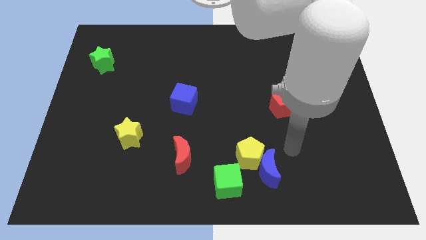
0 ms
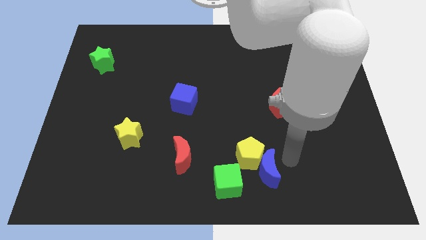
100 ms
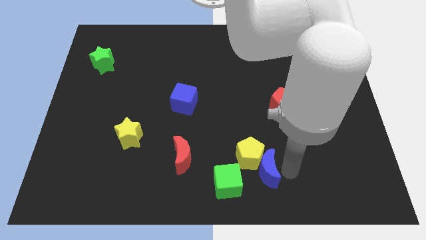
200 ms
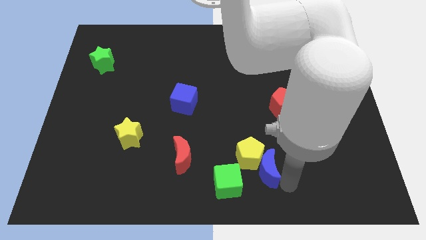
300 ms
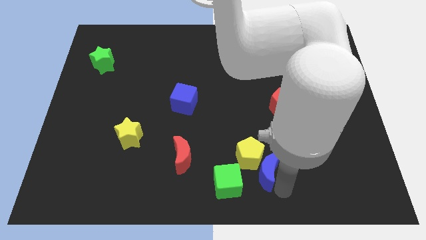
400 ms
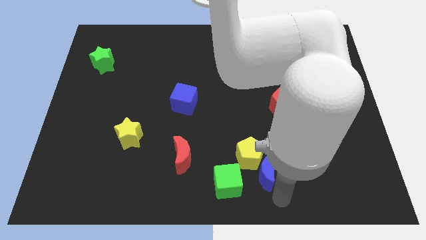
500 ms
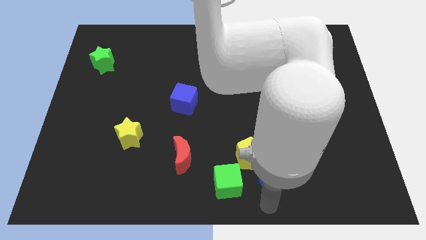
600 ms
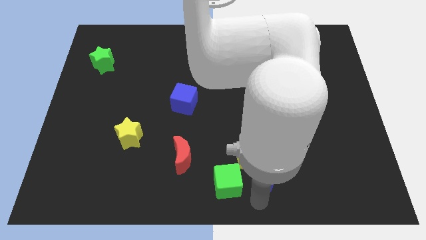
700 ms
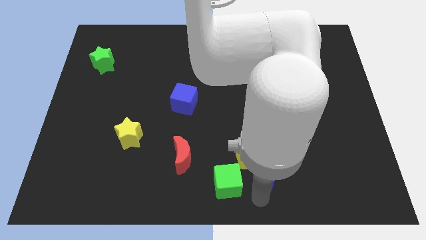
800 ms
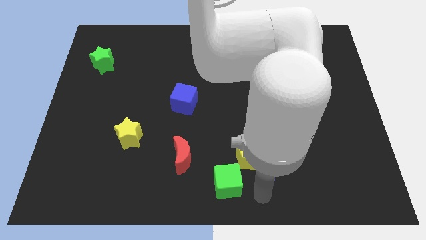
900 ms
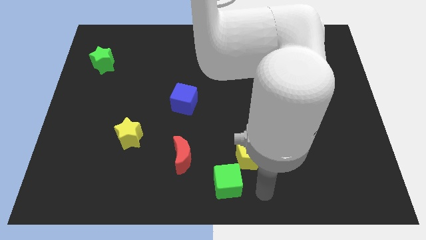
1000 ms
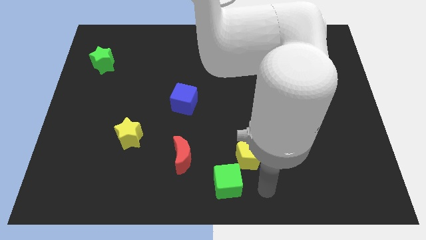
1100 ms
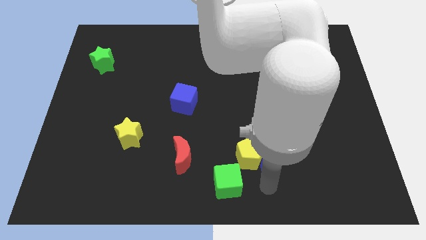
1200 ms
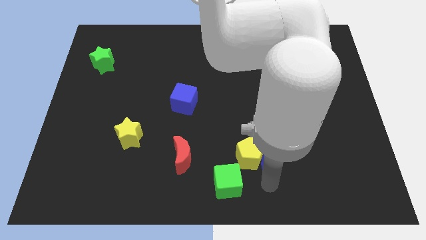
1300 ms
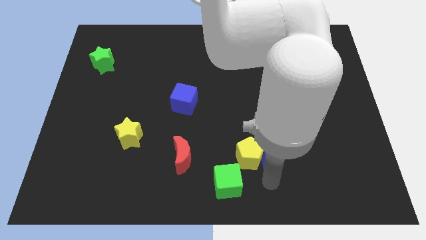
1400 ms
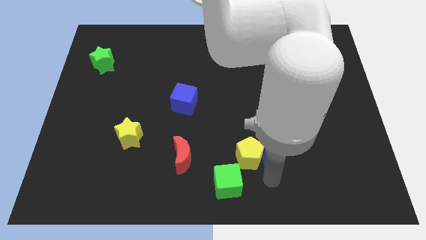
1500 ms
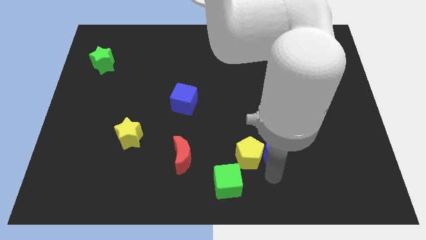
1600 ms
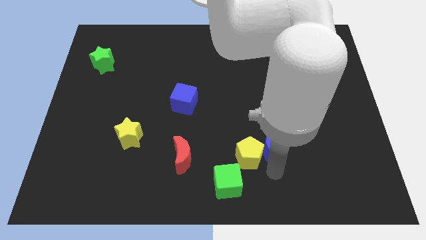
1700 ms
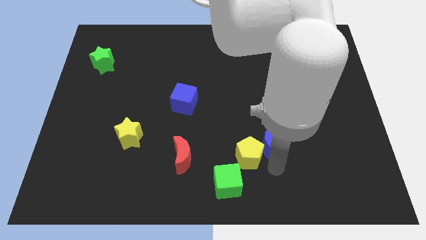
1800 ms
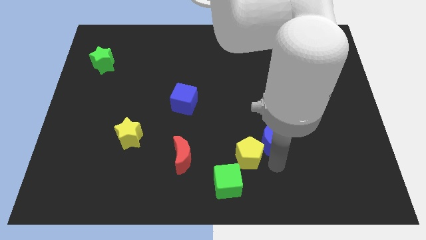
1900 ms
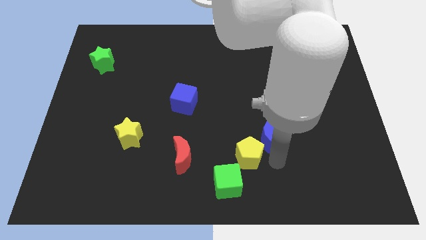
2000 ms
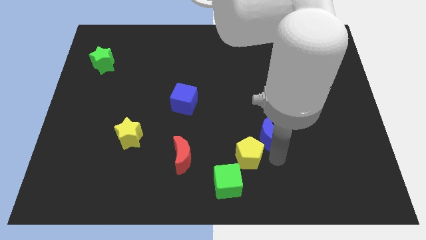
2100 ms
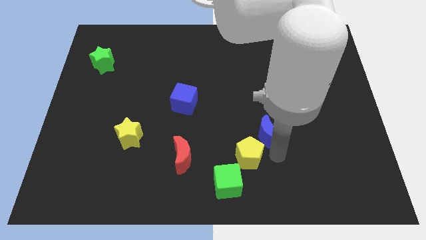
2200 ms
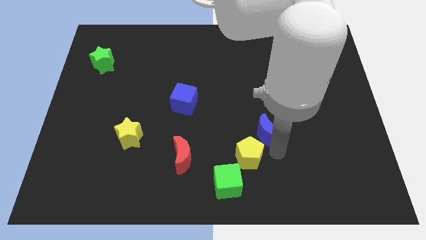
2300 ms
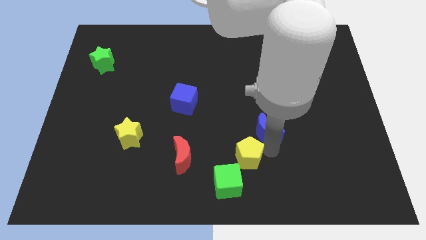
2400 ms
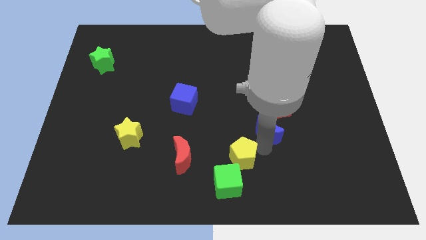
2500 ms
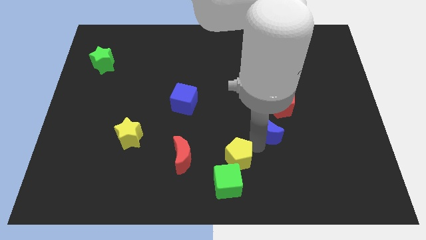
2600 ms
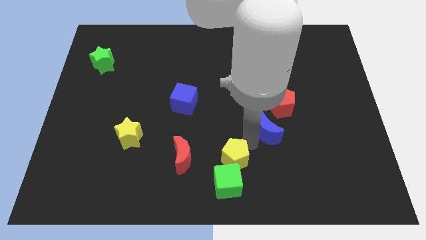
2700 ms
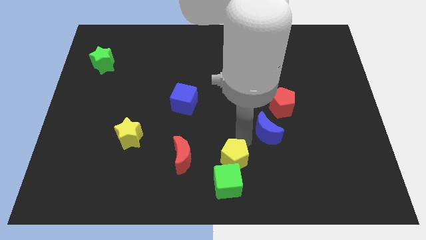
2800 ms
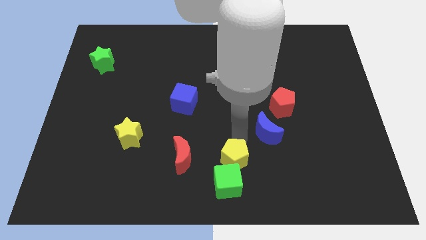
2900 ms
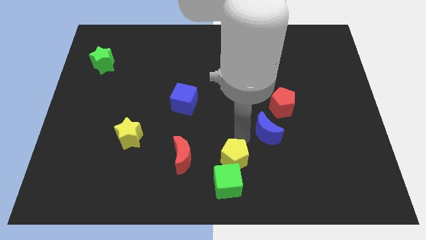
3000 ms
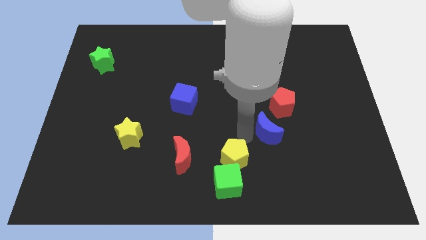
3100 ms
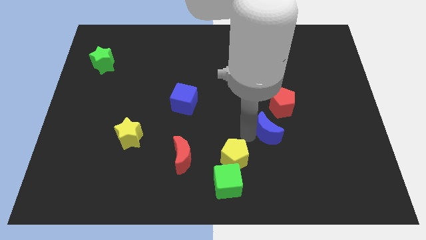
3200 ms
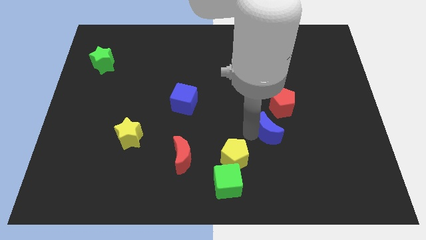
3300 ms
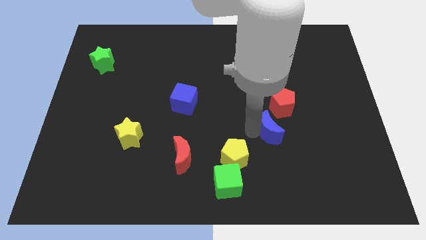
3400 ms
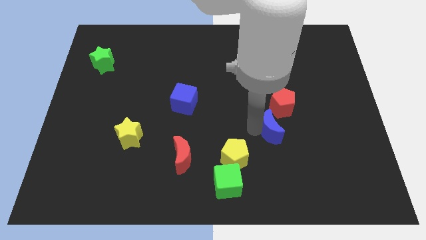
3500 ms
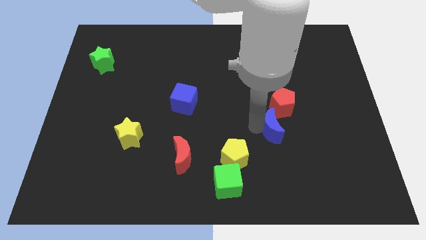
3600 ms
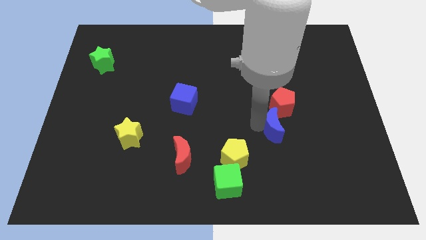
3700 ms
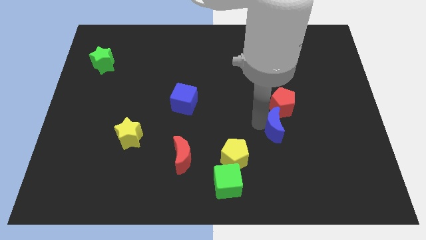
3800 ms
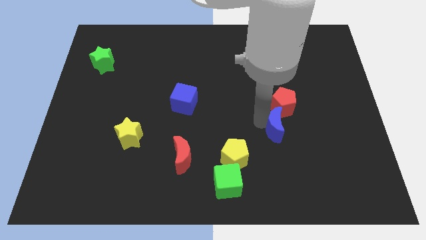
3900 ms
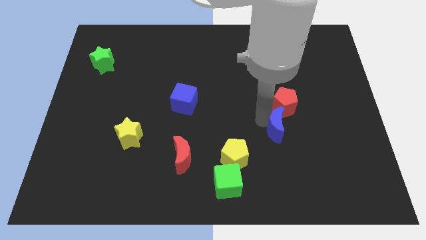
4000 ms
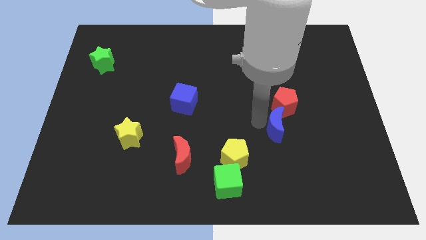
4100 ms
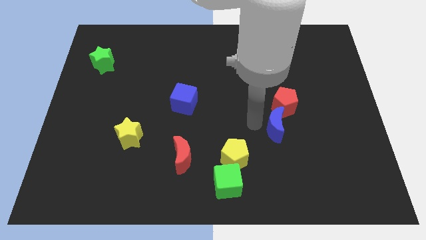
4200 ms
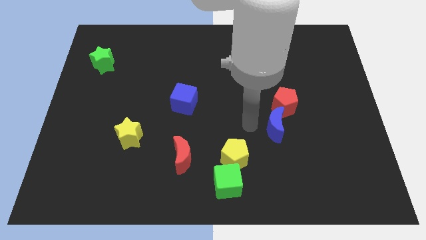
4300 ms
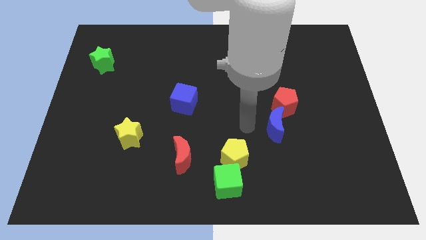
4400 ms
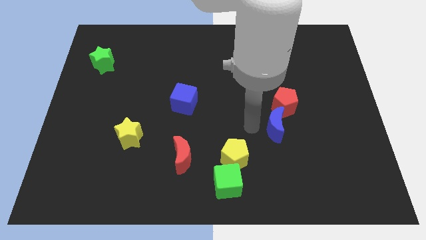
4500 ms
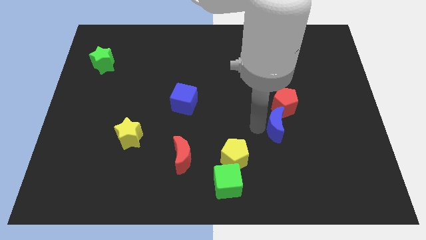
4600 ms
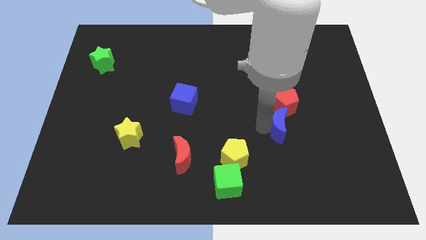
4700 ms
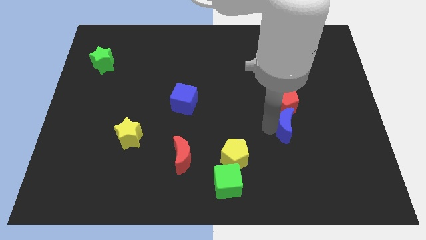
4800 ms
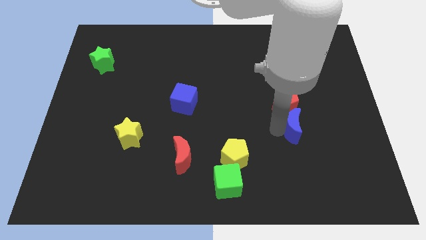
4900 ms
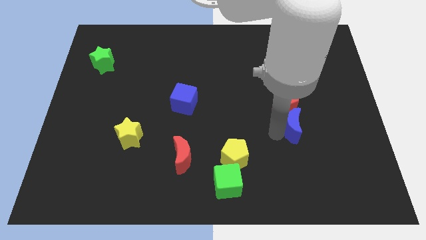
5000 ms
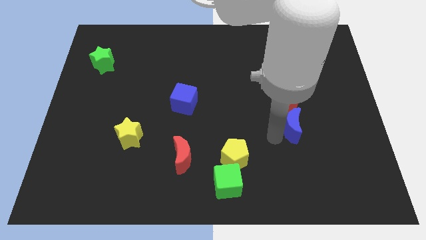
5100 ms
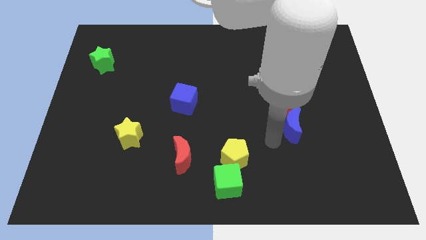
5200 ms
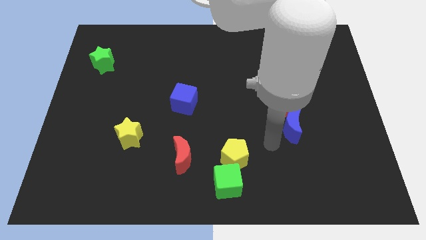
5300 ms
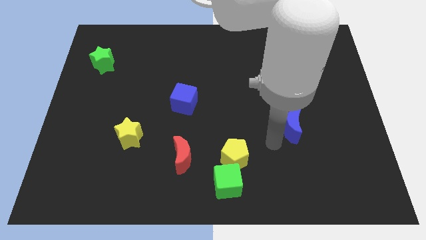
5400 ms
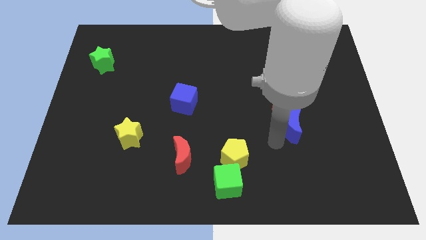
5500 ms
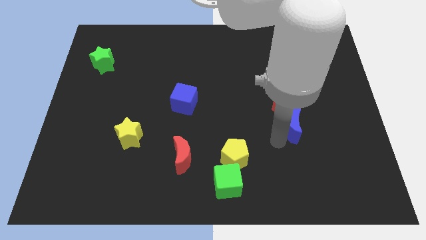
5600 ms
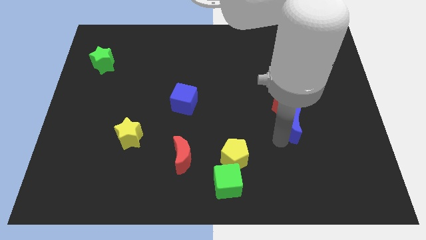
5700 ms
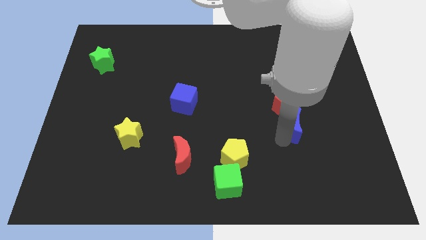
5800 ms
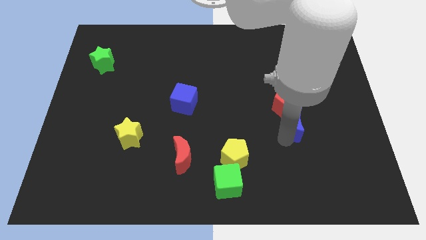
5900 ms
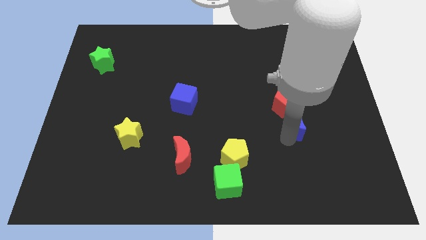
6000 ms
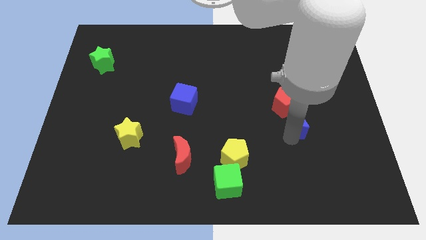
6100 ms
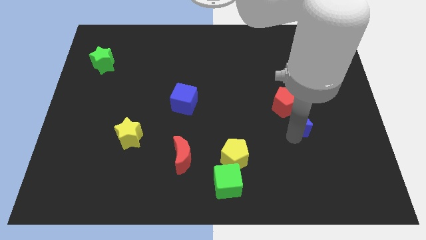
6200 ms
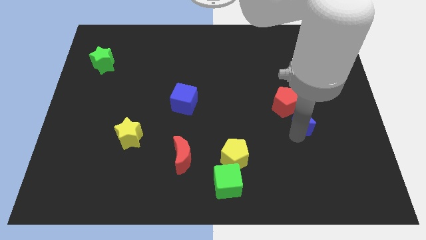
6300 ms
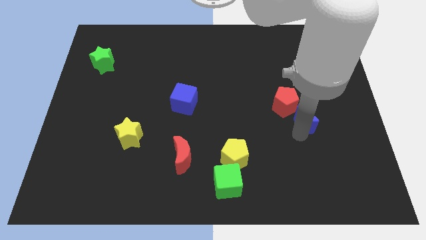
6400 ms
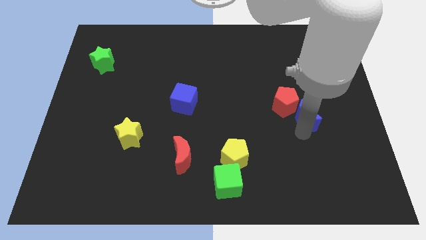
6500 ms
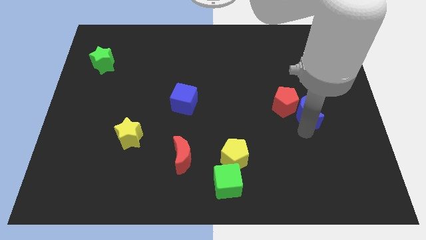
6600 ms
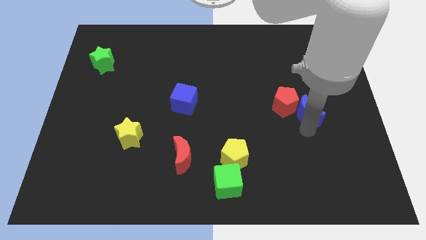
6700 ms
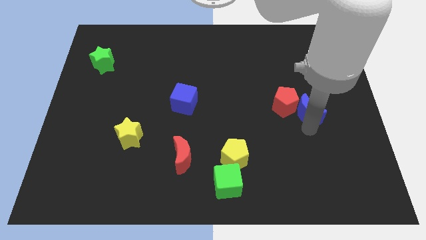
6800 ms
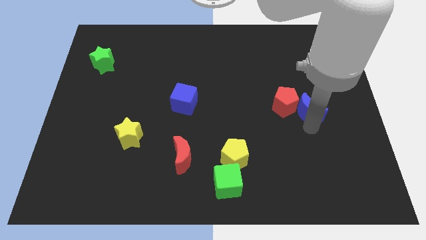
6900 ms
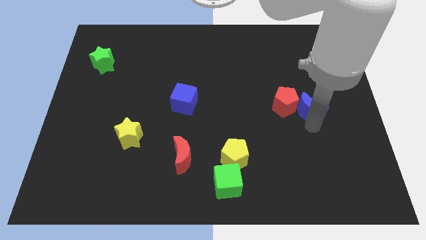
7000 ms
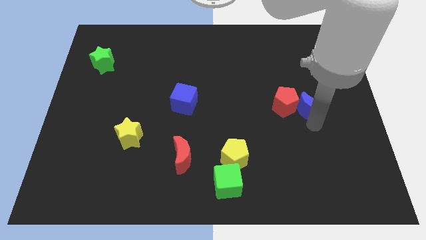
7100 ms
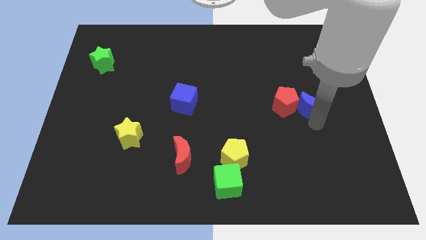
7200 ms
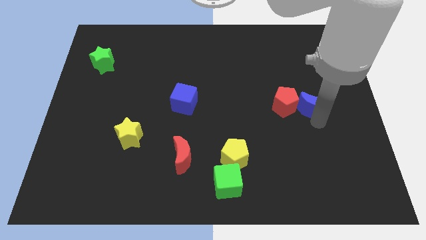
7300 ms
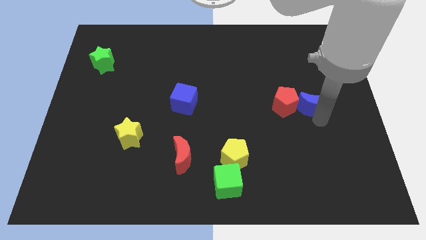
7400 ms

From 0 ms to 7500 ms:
put the blue moon to the top right of the red pentagon
